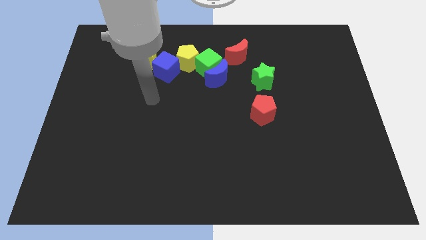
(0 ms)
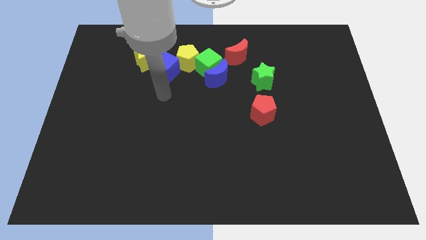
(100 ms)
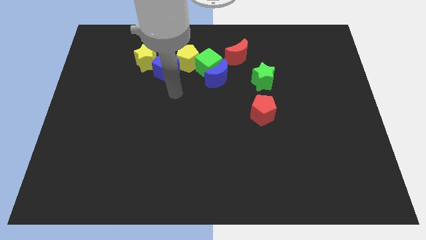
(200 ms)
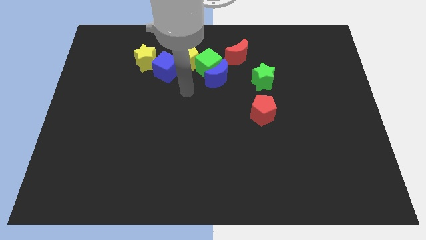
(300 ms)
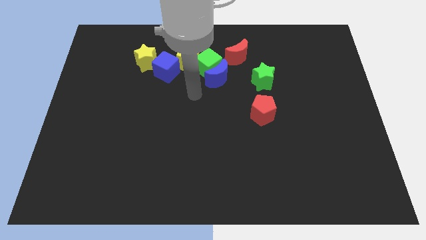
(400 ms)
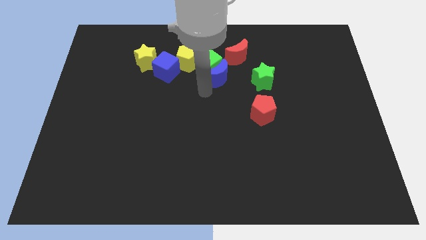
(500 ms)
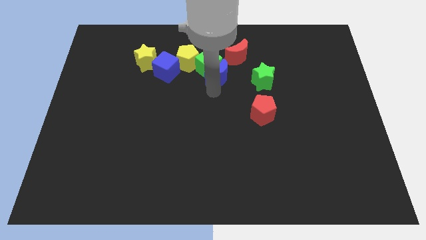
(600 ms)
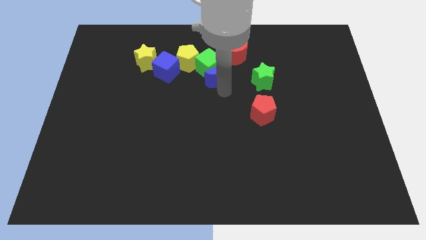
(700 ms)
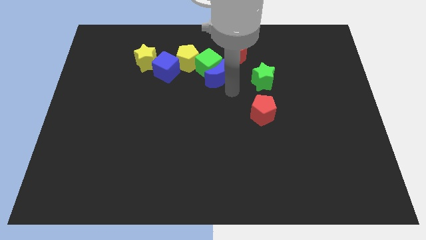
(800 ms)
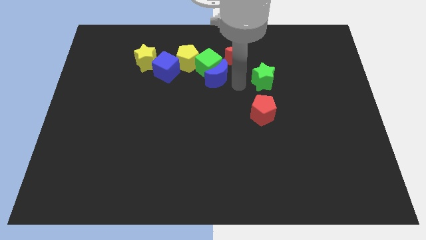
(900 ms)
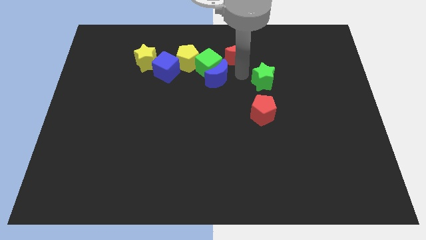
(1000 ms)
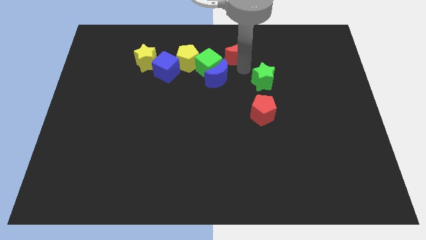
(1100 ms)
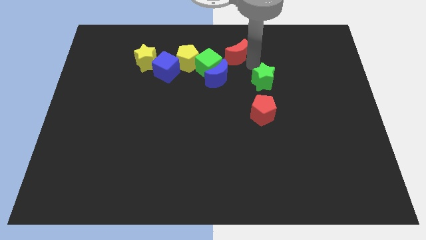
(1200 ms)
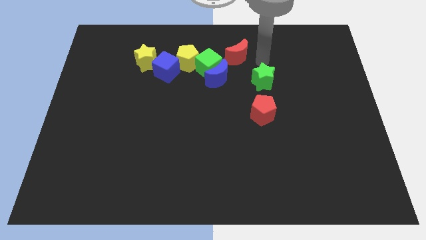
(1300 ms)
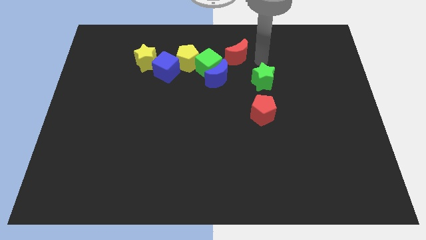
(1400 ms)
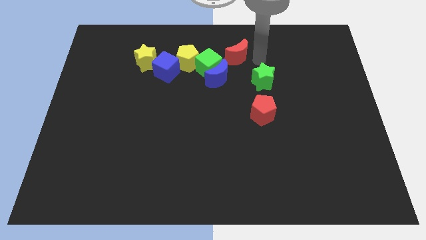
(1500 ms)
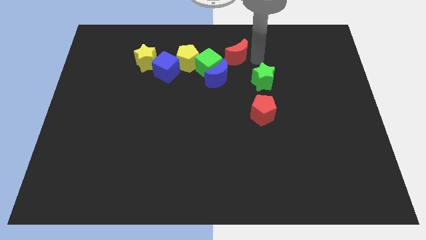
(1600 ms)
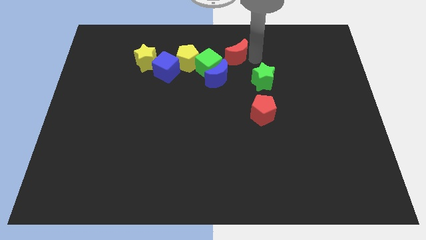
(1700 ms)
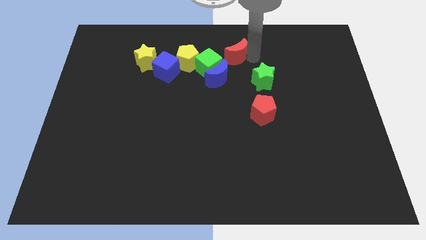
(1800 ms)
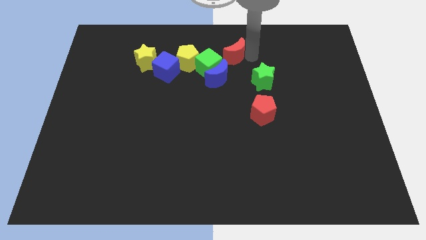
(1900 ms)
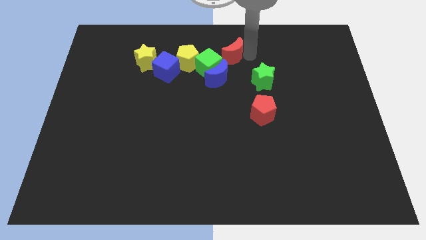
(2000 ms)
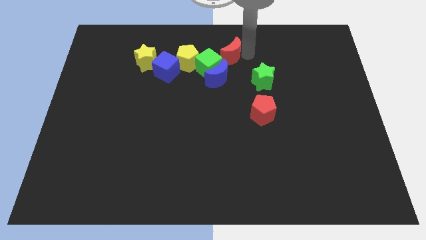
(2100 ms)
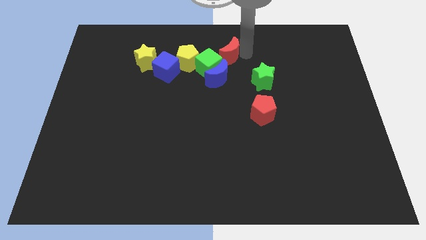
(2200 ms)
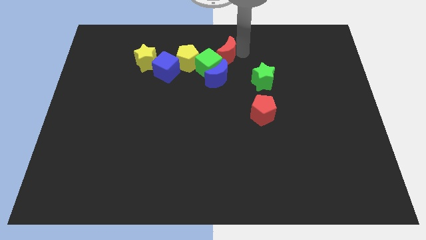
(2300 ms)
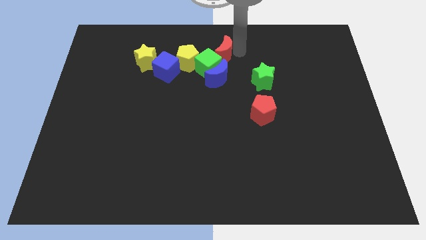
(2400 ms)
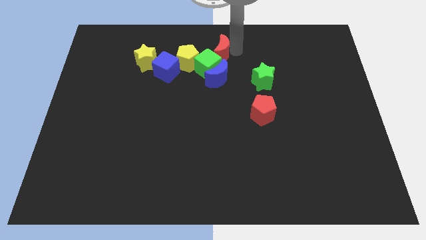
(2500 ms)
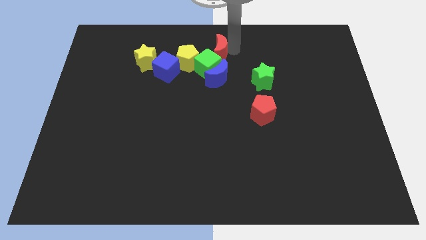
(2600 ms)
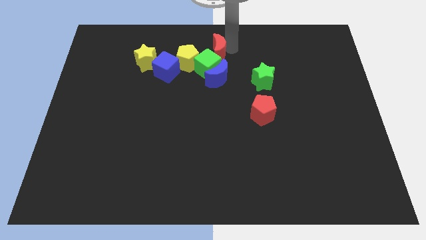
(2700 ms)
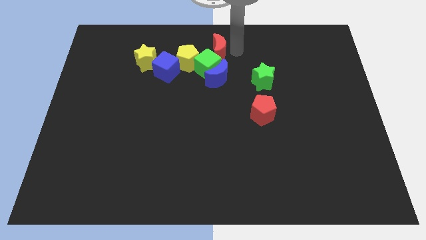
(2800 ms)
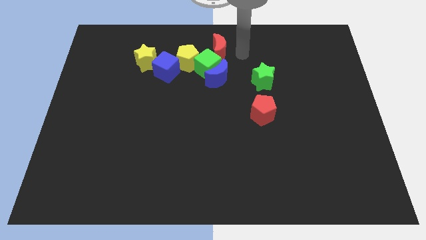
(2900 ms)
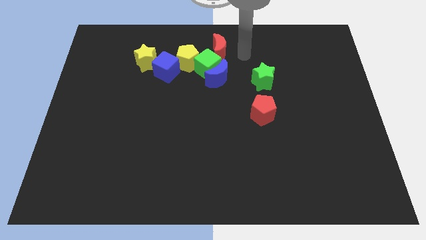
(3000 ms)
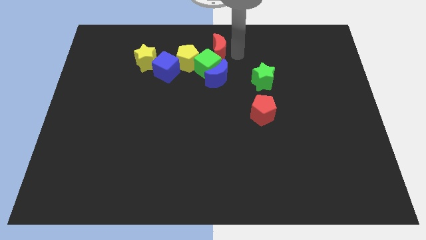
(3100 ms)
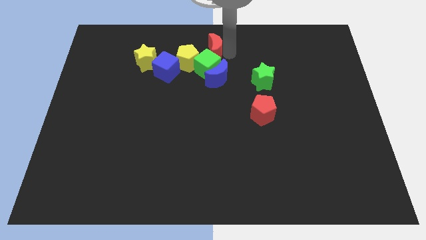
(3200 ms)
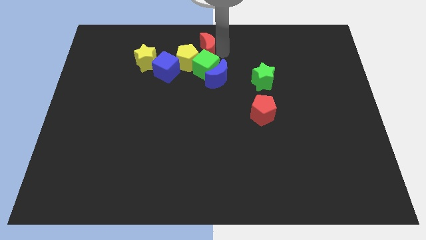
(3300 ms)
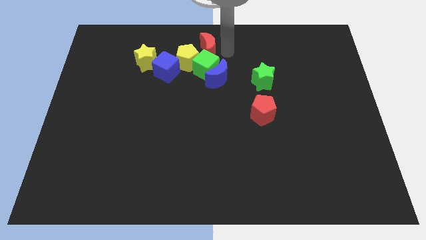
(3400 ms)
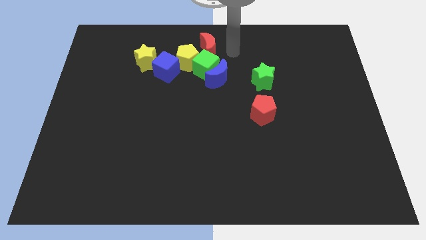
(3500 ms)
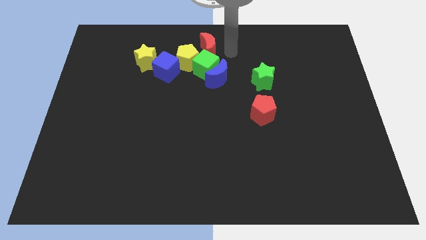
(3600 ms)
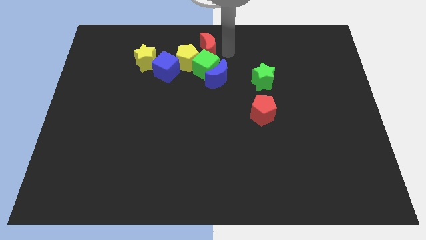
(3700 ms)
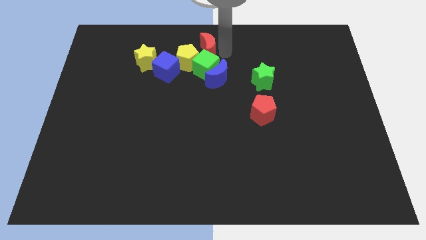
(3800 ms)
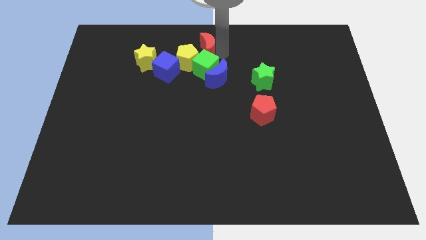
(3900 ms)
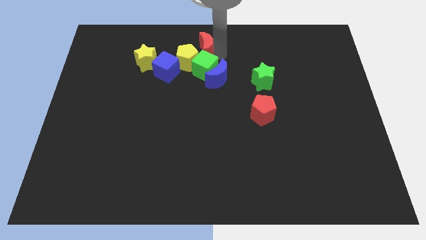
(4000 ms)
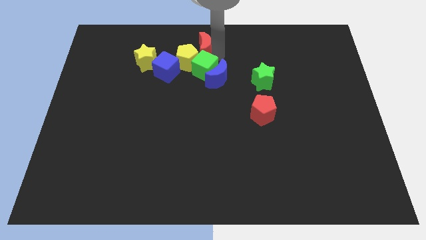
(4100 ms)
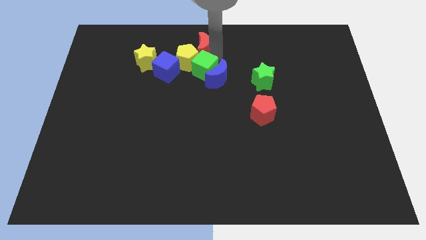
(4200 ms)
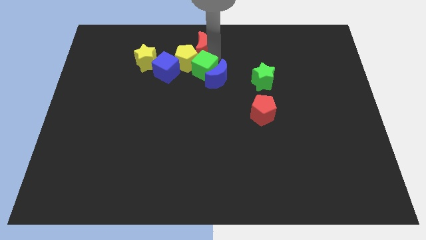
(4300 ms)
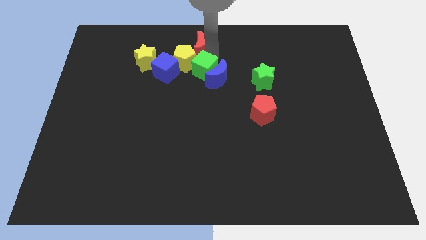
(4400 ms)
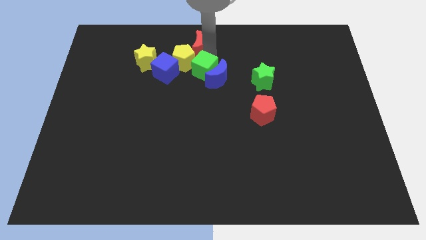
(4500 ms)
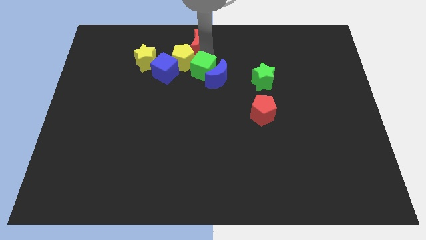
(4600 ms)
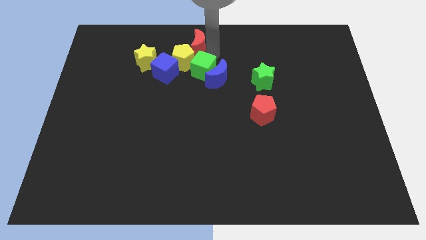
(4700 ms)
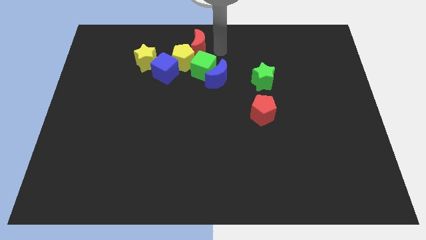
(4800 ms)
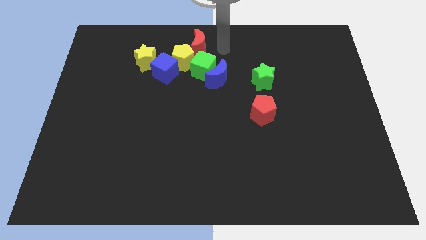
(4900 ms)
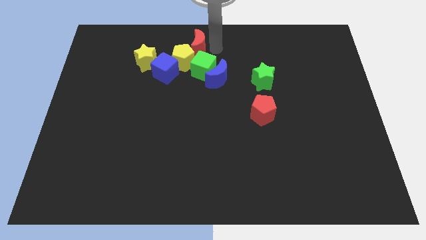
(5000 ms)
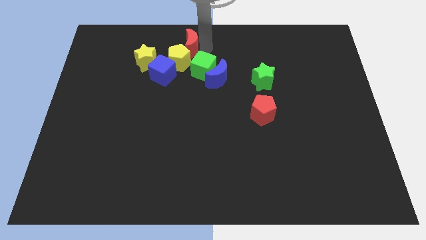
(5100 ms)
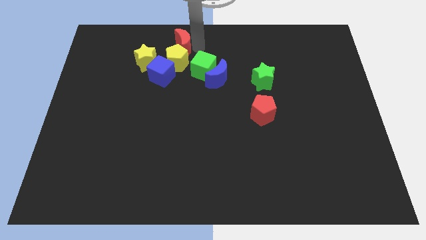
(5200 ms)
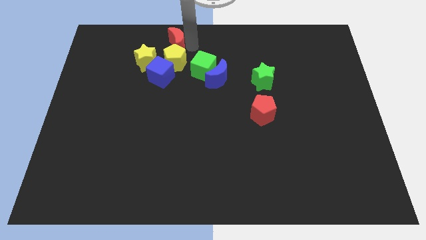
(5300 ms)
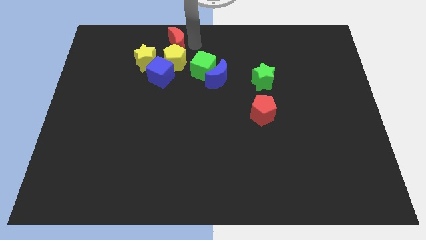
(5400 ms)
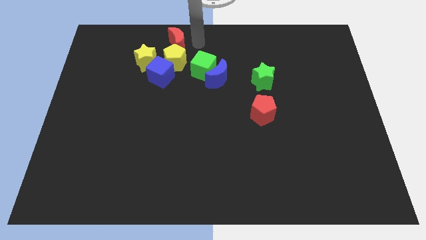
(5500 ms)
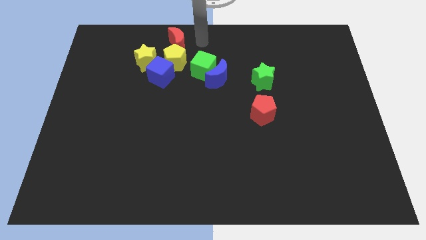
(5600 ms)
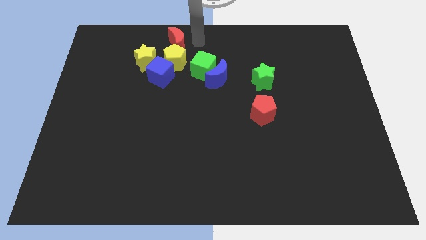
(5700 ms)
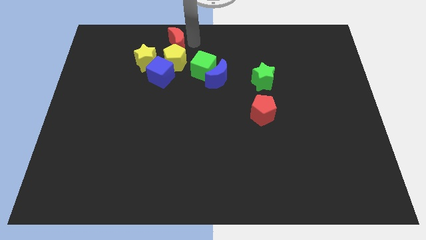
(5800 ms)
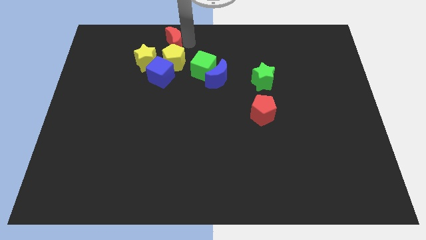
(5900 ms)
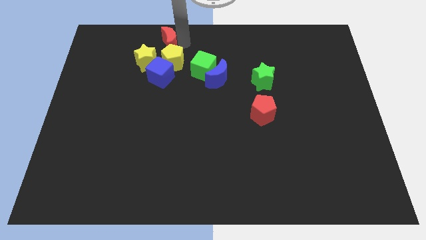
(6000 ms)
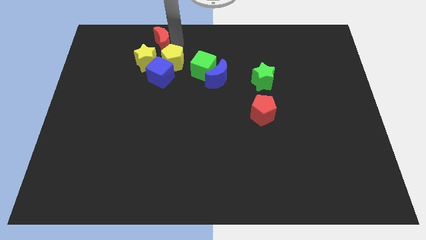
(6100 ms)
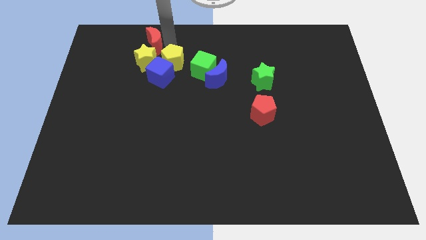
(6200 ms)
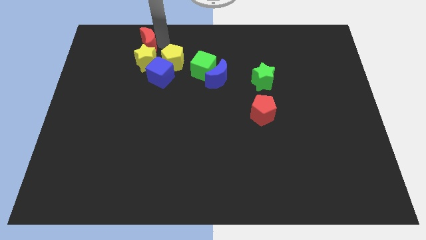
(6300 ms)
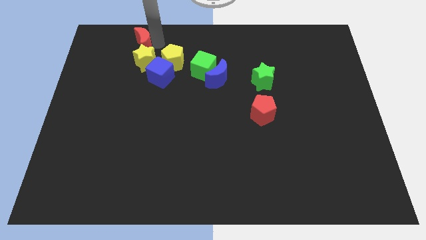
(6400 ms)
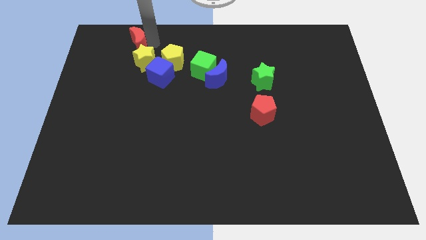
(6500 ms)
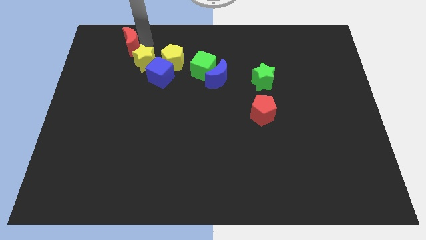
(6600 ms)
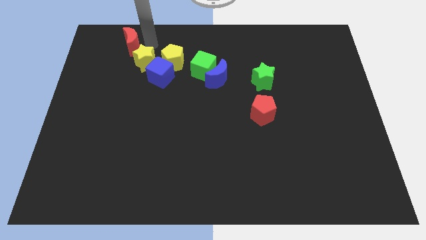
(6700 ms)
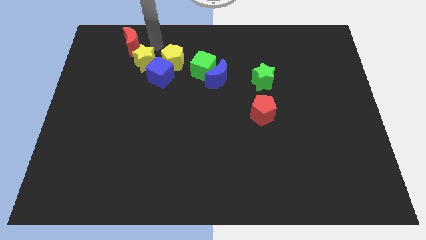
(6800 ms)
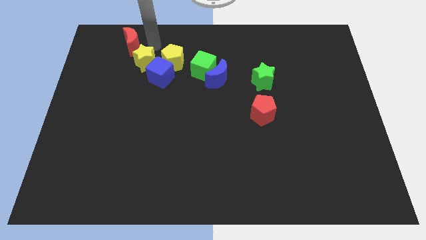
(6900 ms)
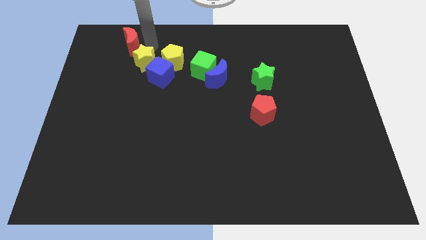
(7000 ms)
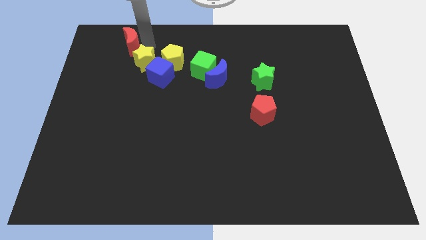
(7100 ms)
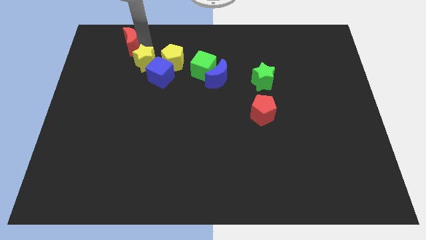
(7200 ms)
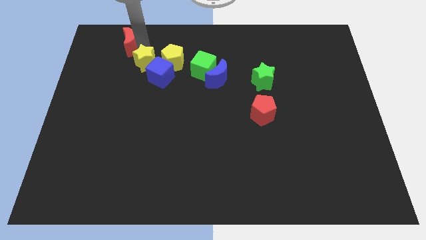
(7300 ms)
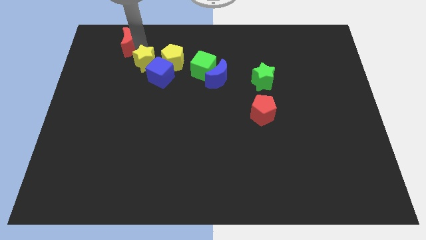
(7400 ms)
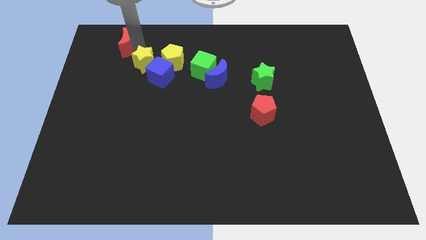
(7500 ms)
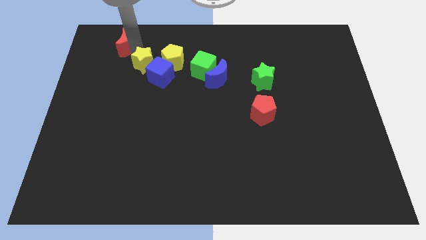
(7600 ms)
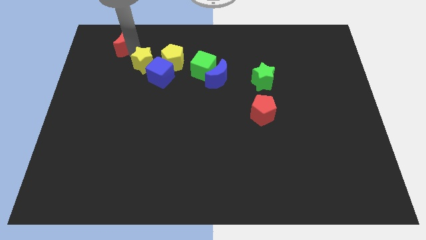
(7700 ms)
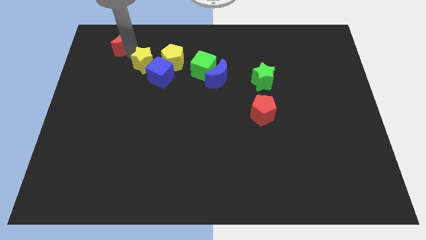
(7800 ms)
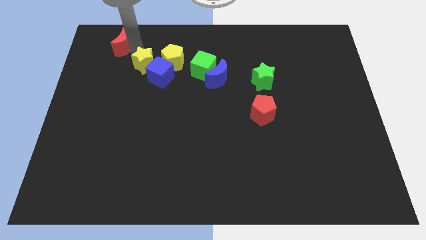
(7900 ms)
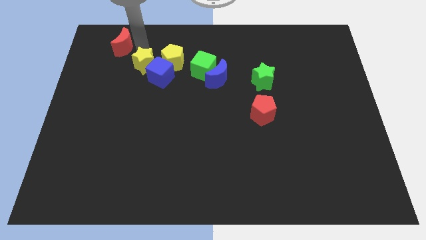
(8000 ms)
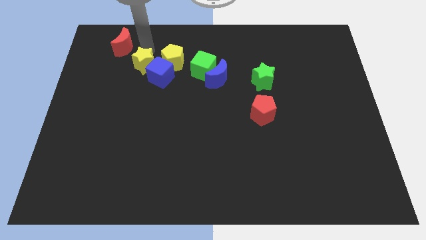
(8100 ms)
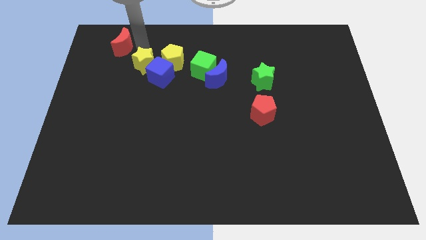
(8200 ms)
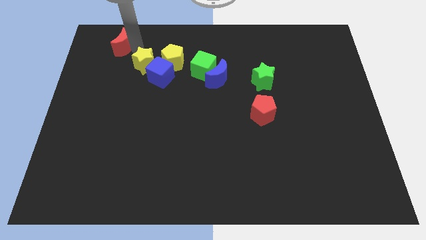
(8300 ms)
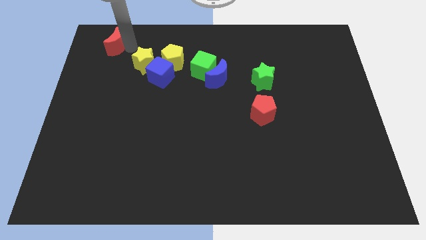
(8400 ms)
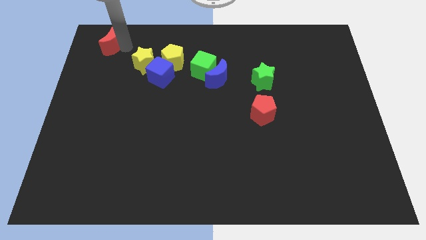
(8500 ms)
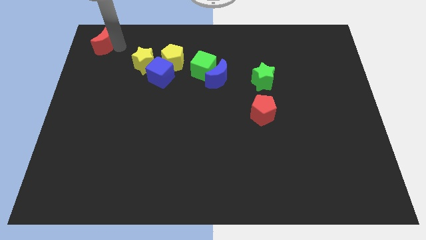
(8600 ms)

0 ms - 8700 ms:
slide the red moon to the top left
